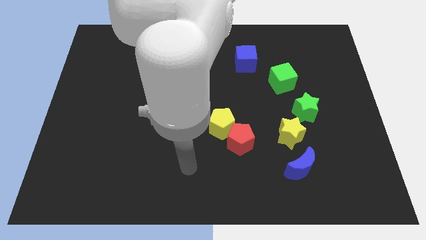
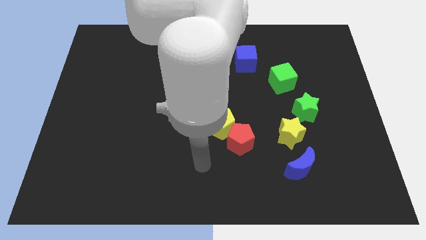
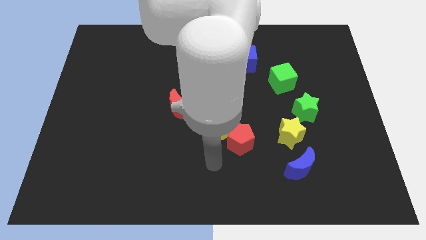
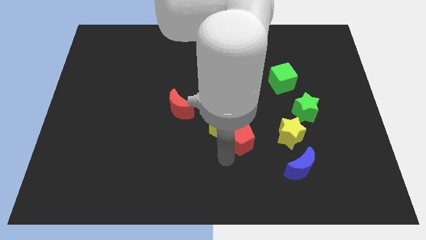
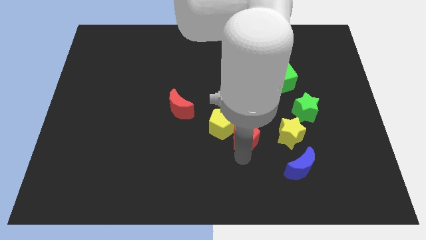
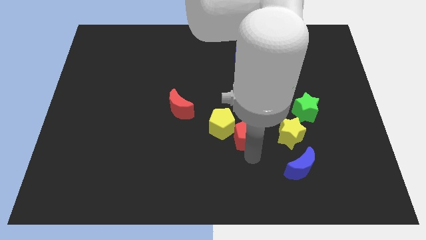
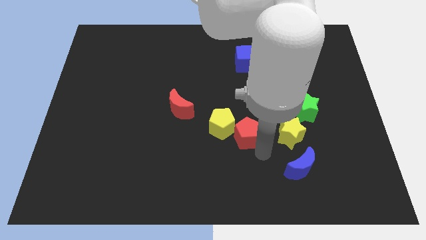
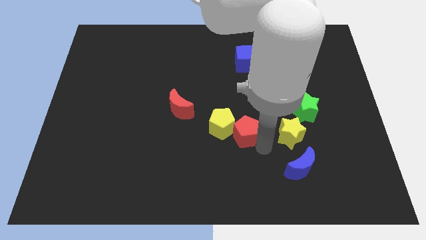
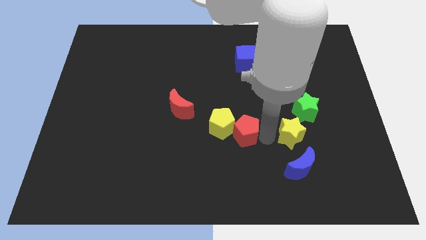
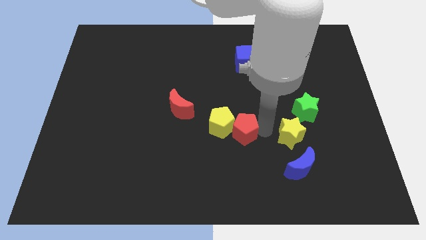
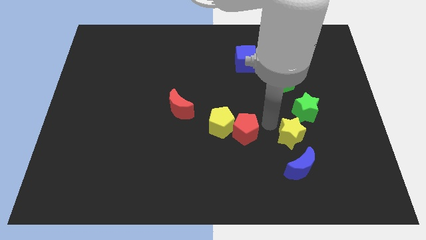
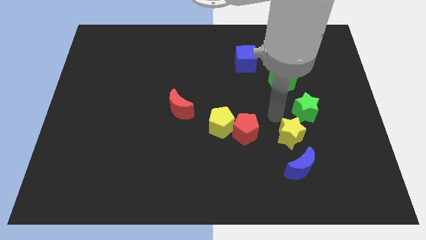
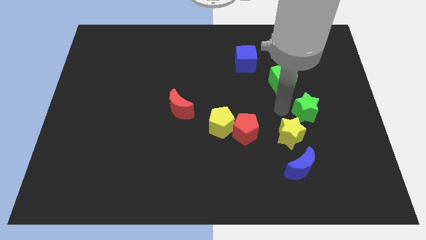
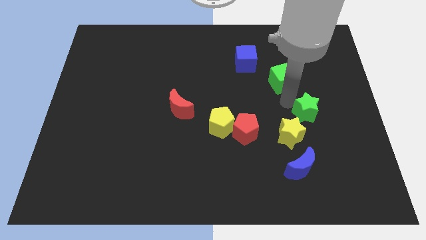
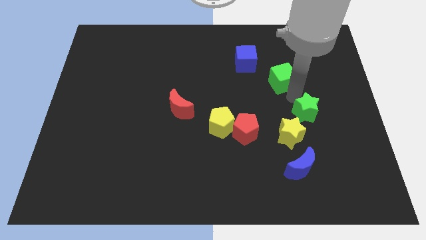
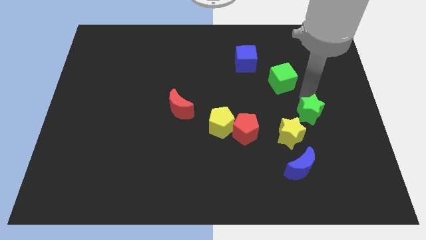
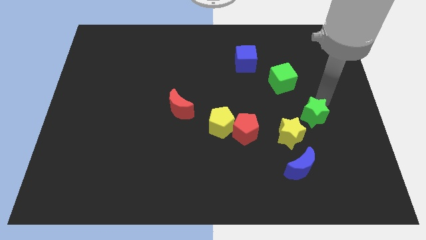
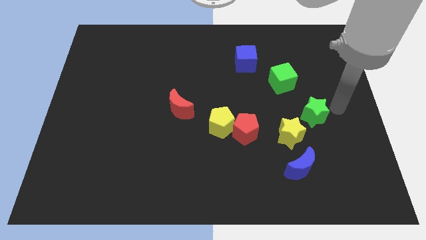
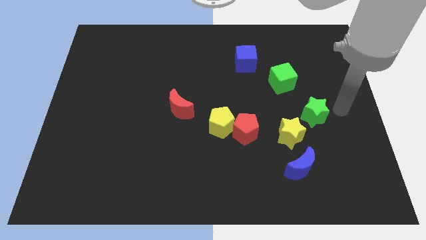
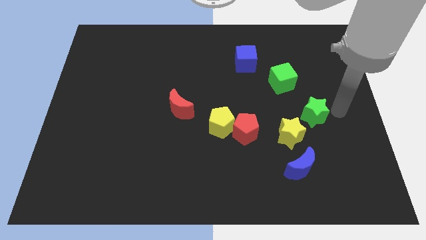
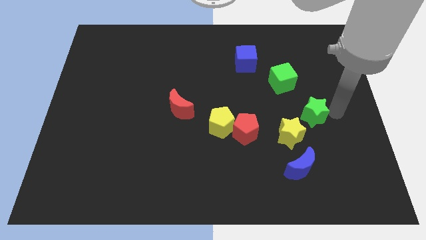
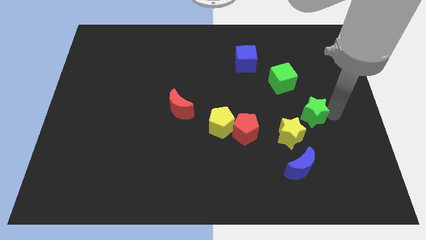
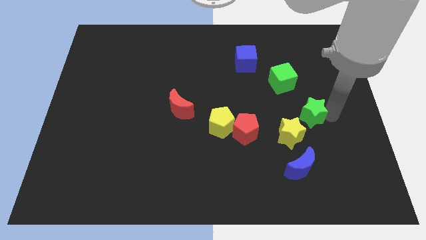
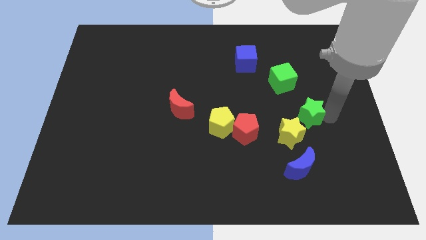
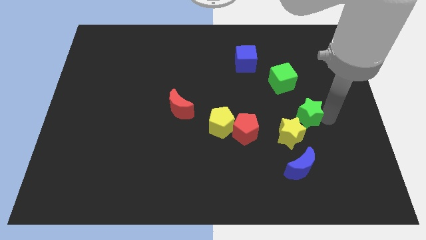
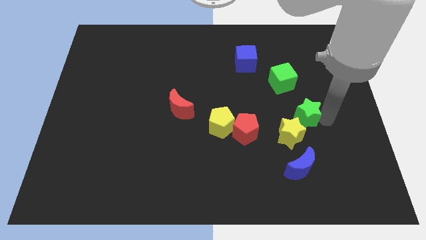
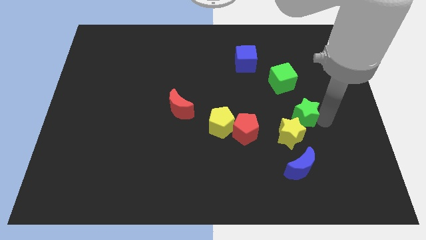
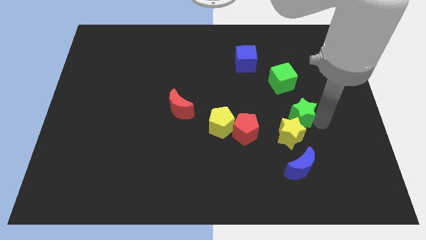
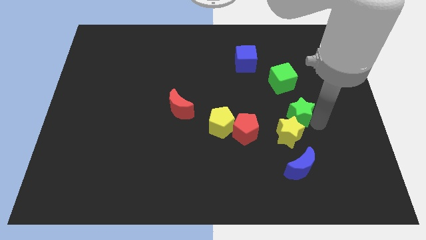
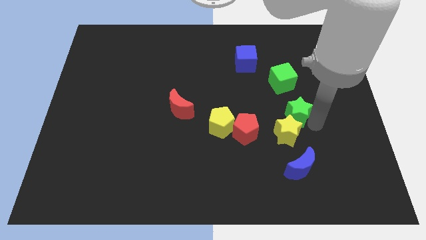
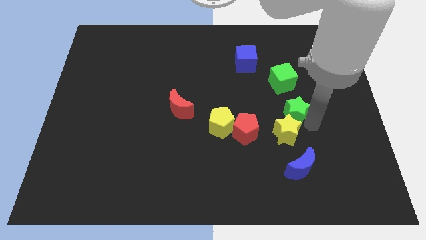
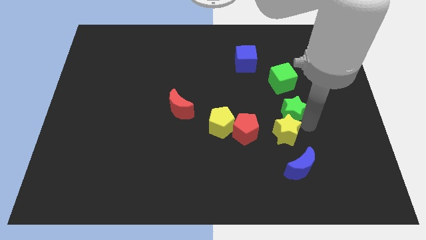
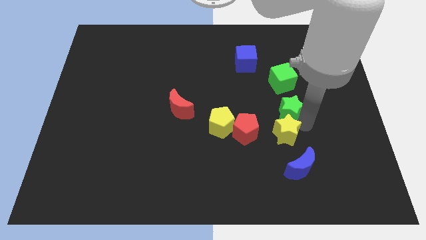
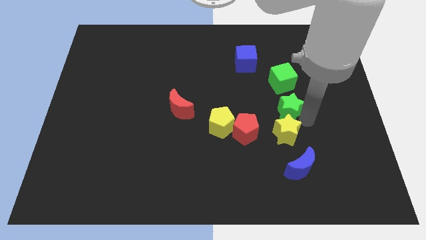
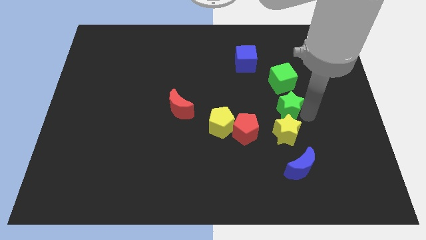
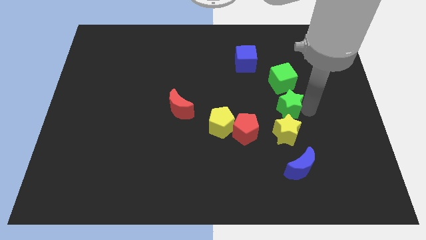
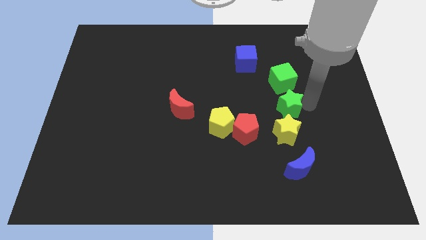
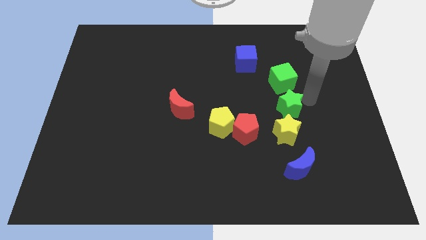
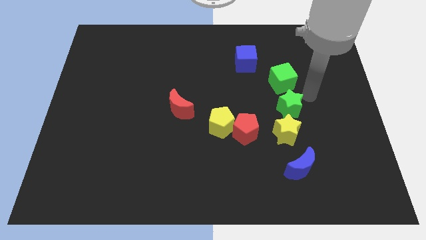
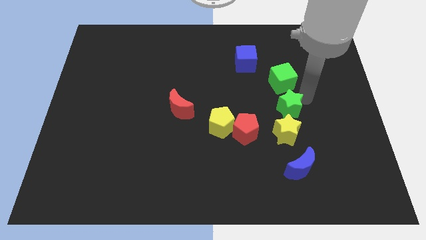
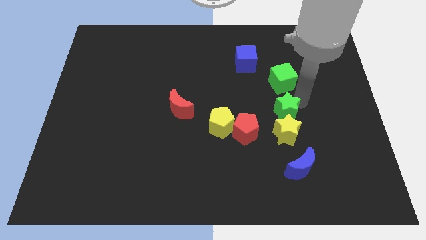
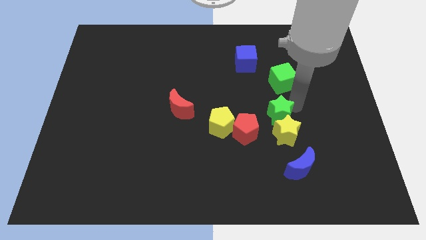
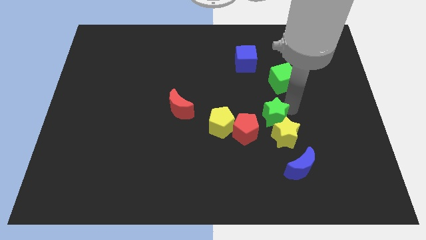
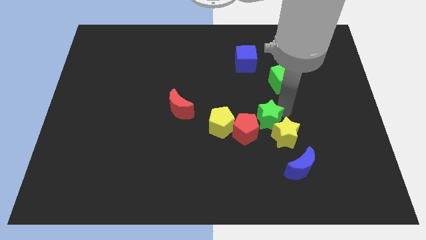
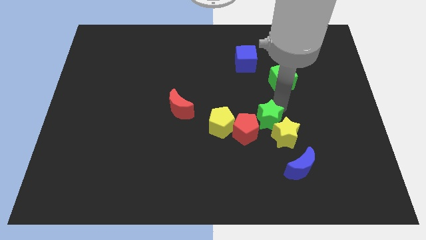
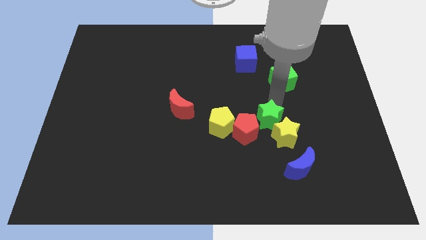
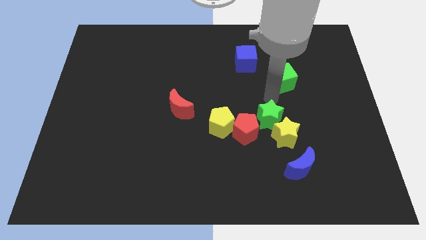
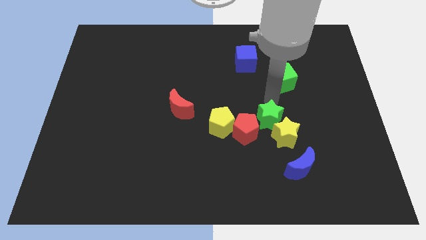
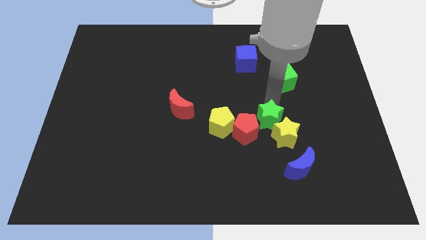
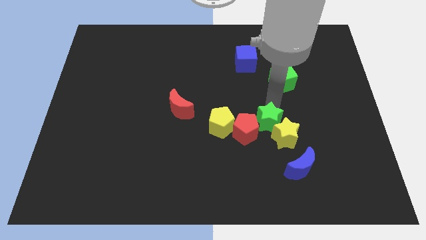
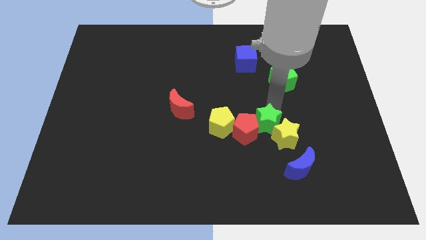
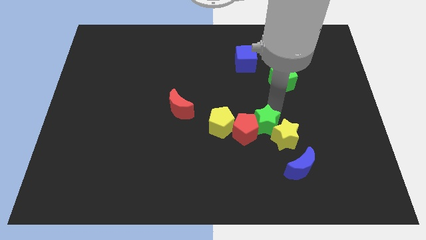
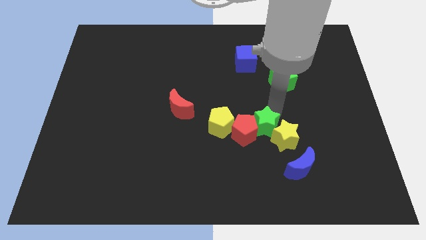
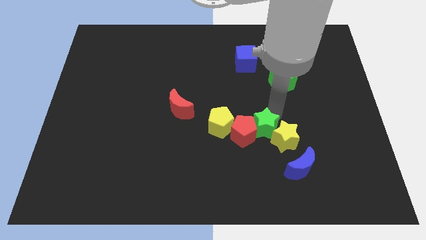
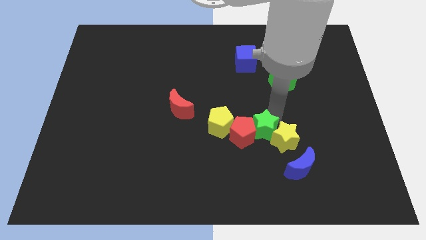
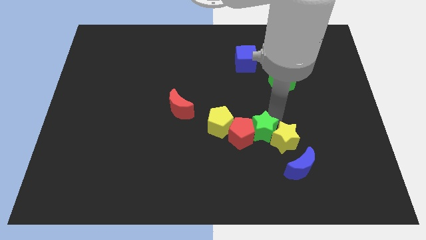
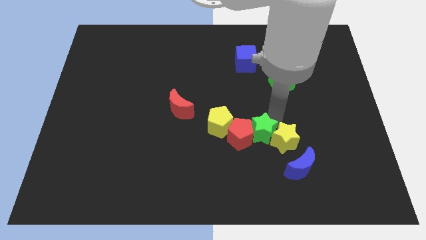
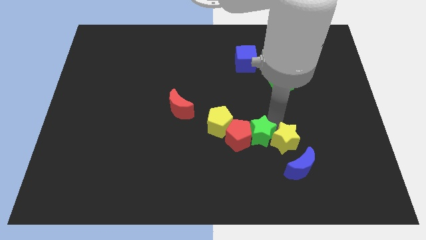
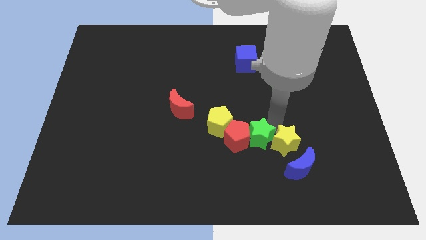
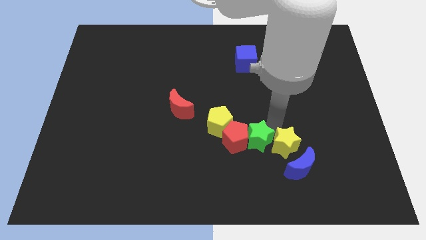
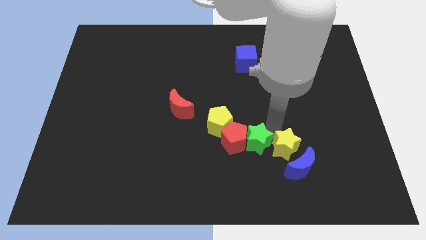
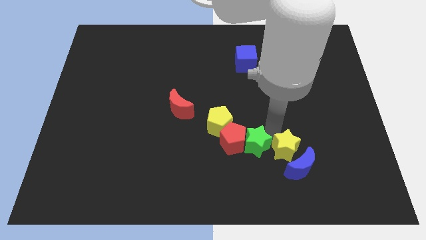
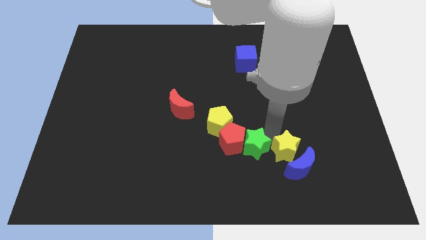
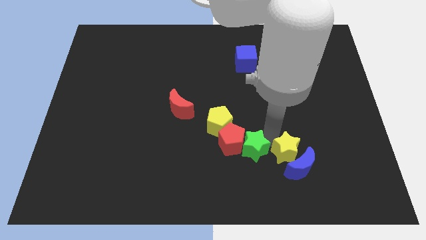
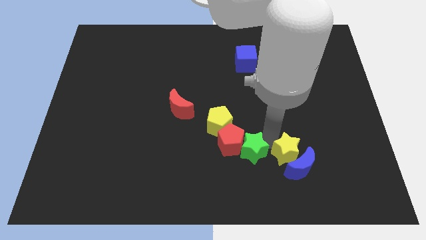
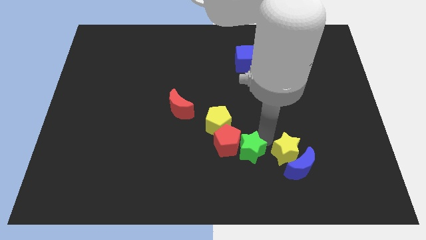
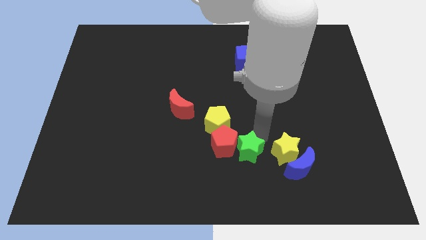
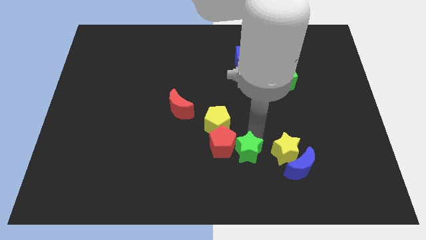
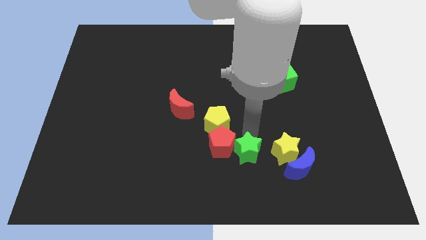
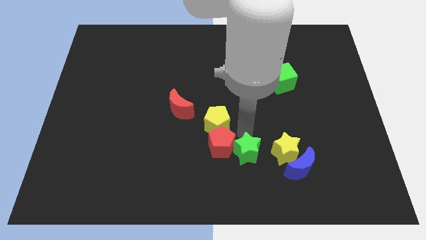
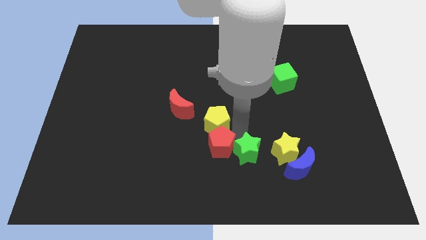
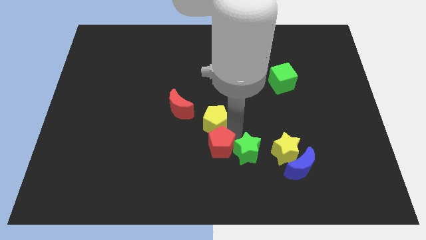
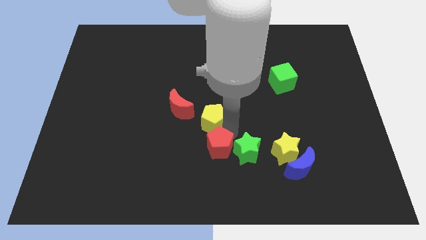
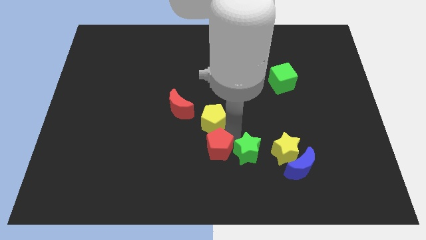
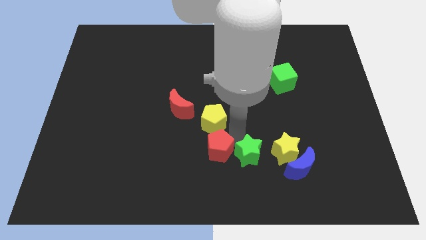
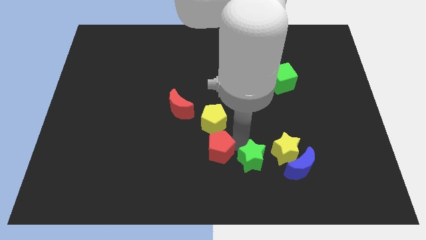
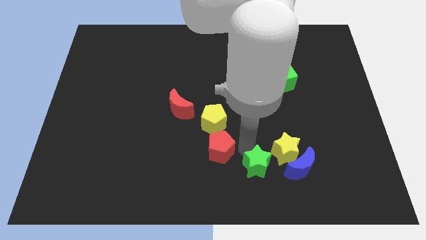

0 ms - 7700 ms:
move the green star to the bottom
